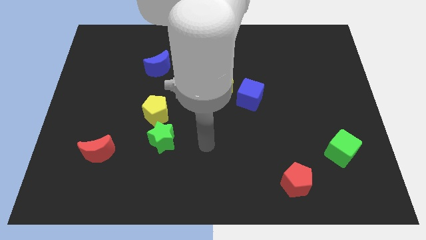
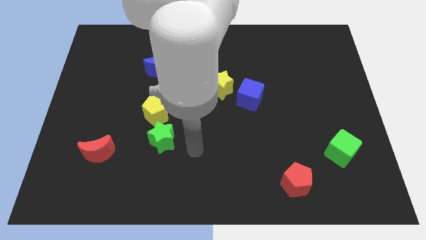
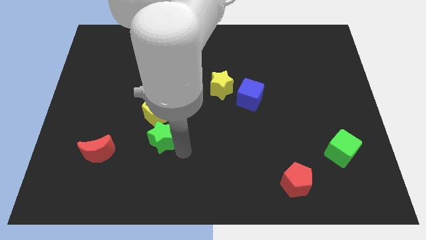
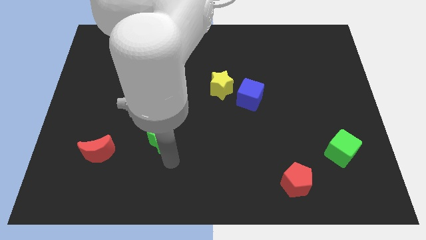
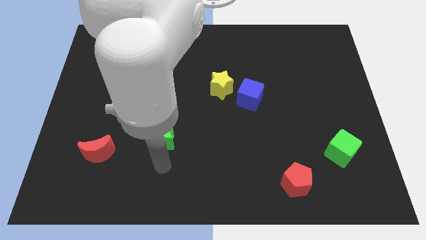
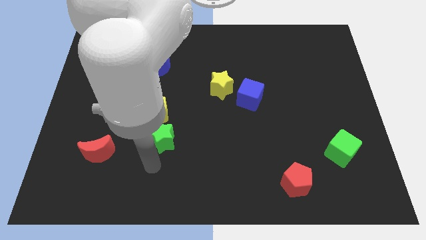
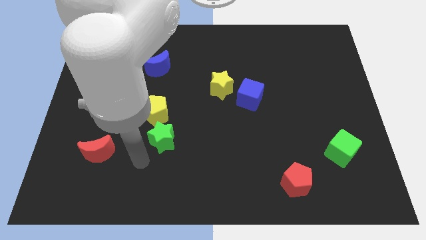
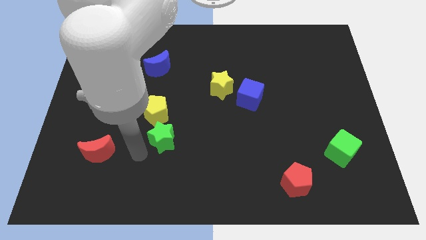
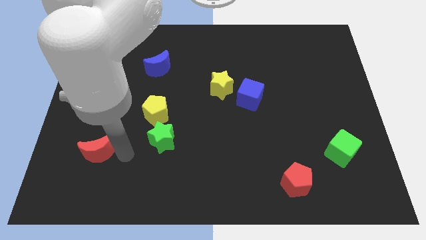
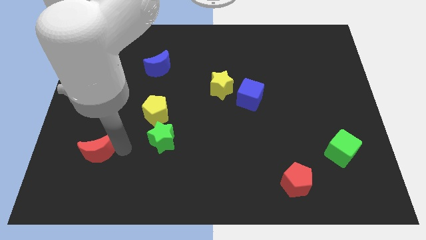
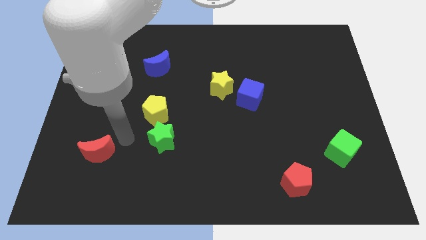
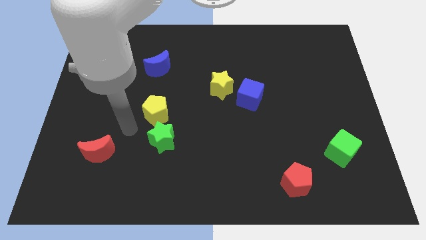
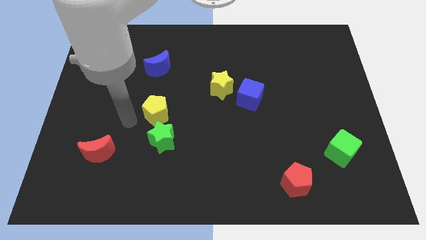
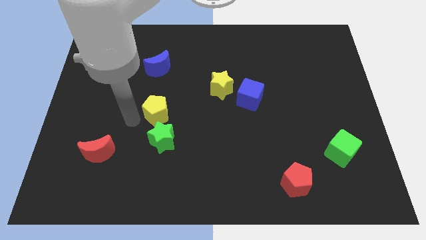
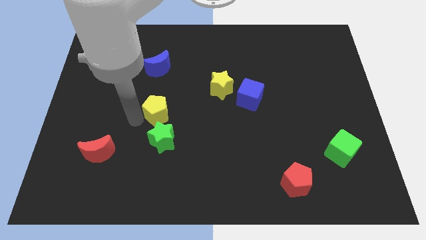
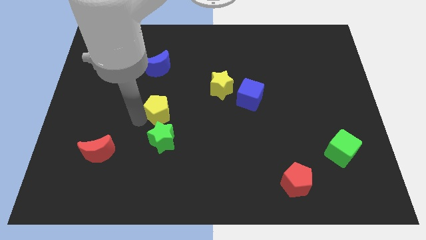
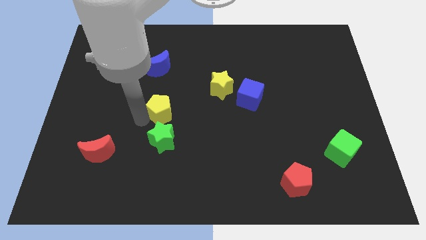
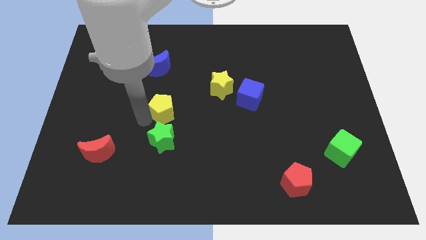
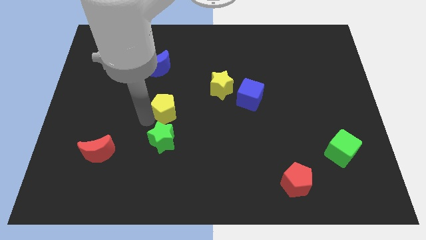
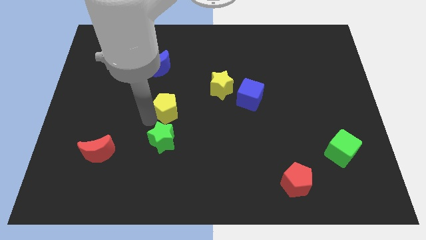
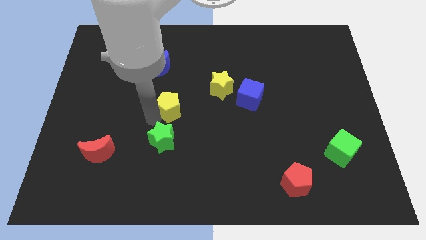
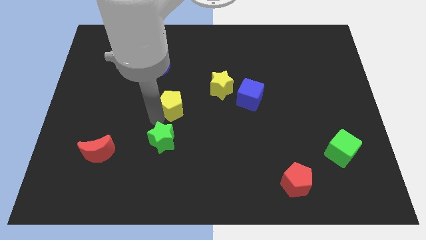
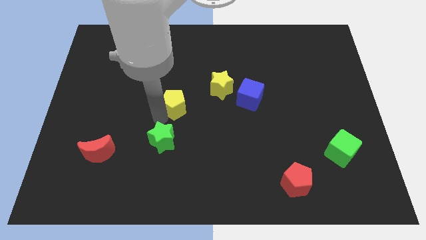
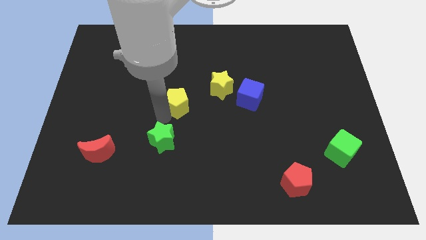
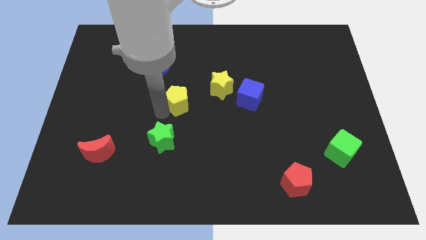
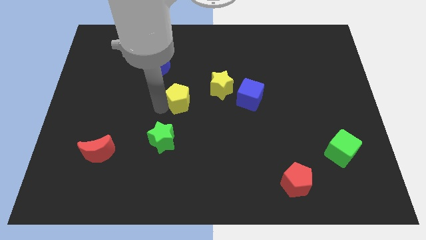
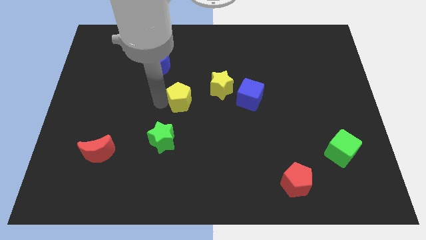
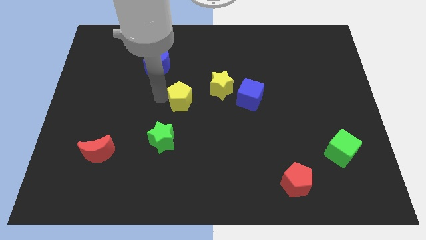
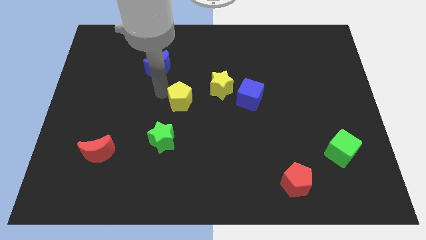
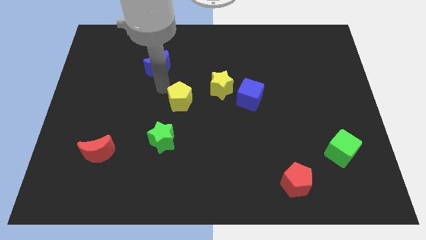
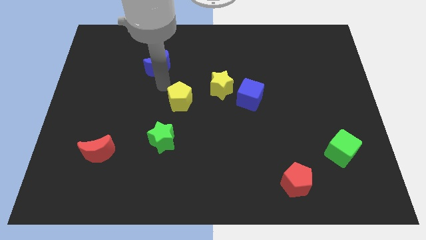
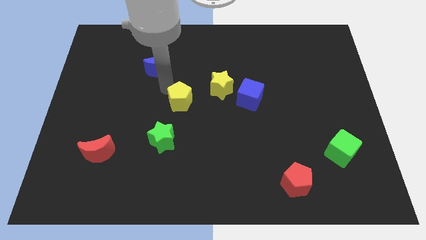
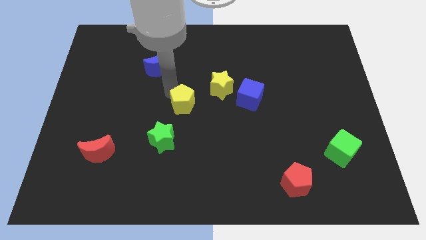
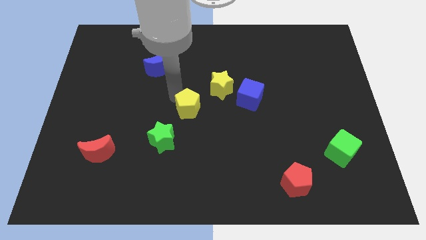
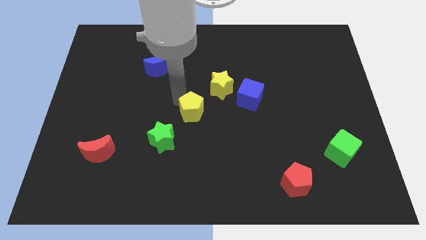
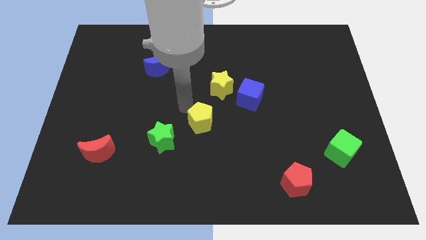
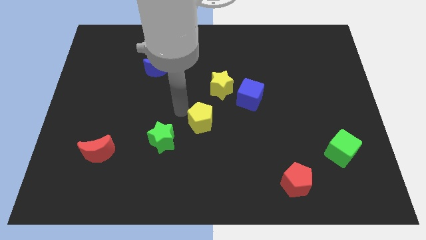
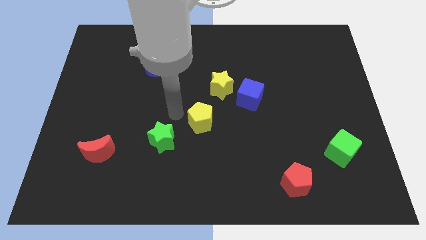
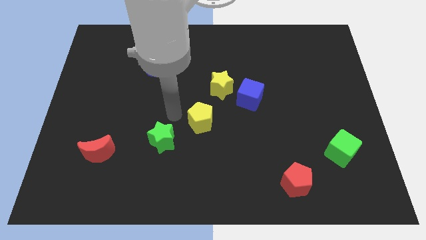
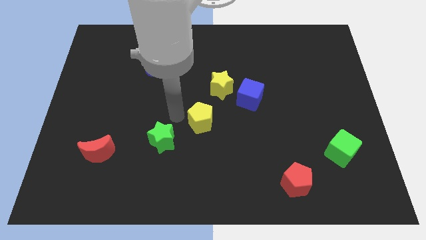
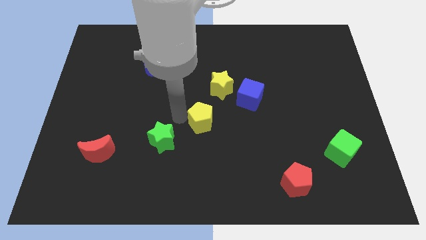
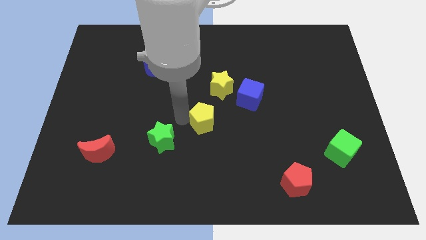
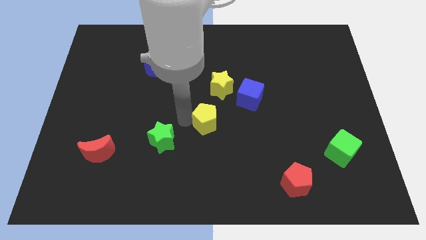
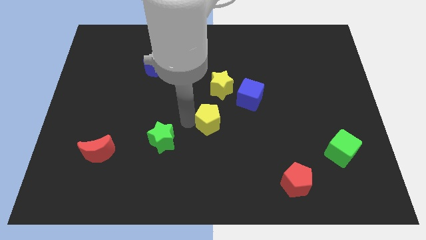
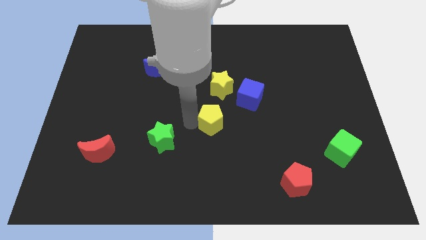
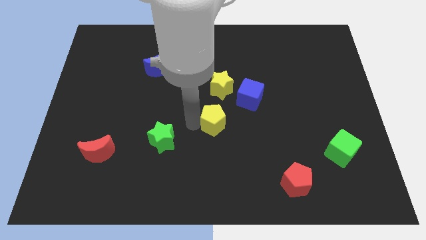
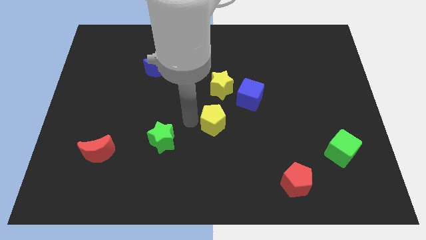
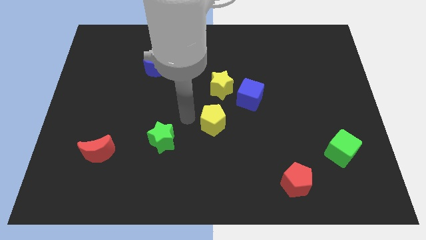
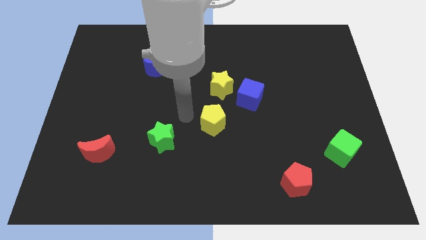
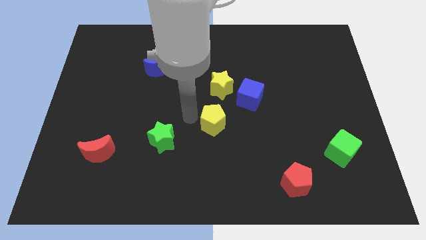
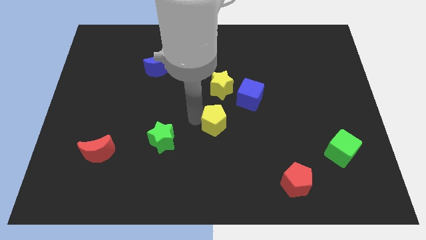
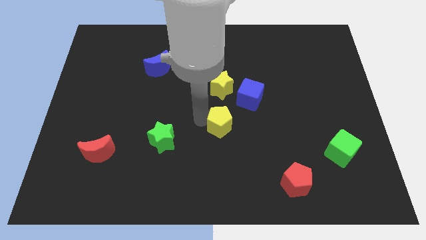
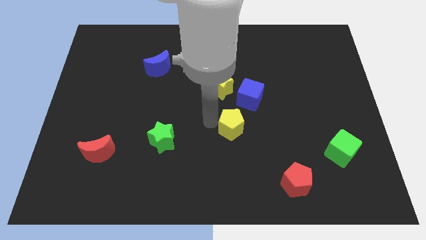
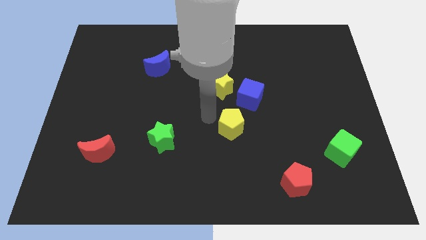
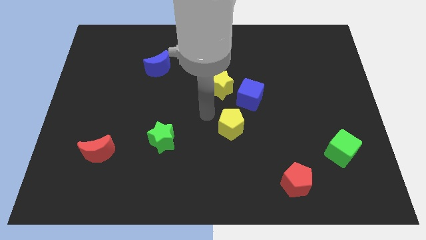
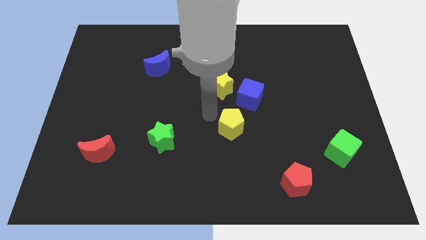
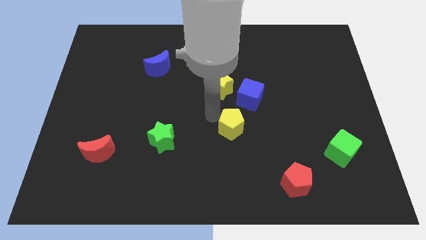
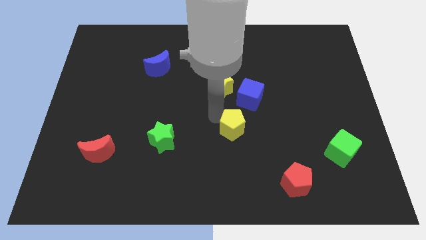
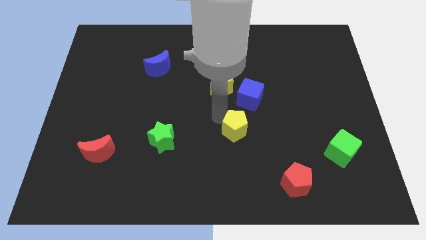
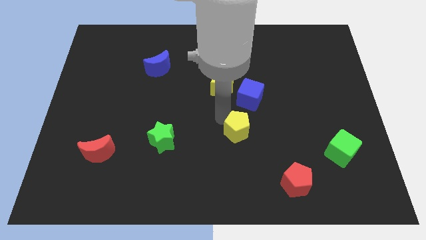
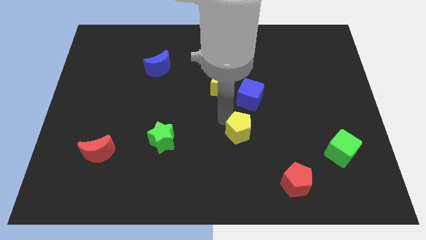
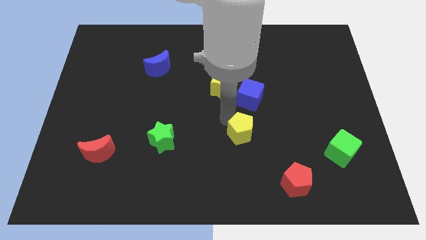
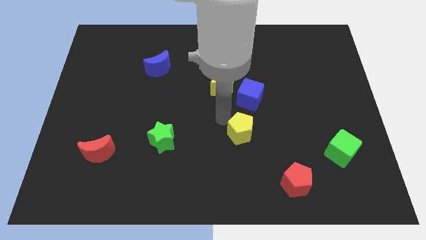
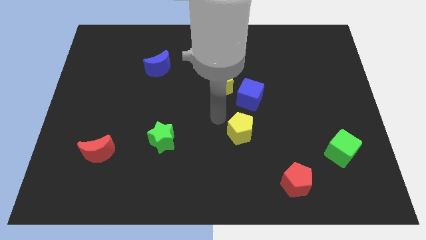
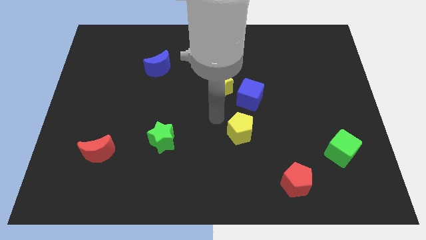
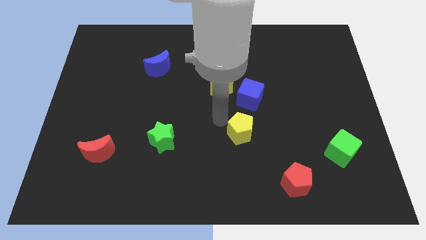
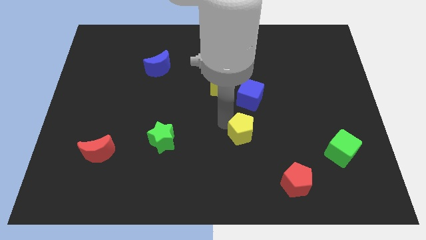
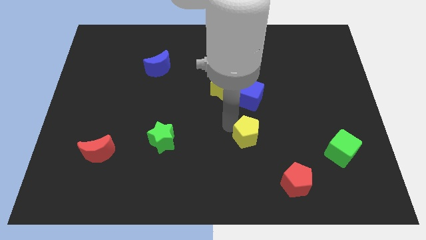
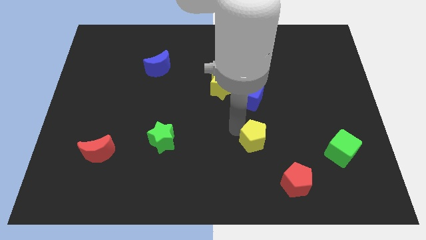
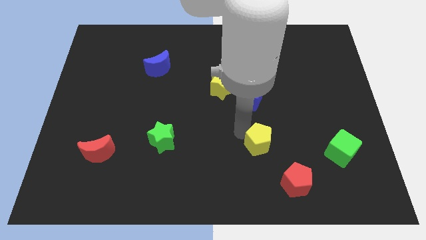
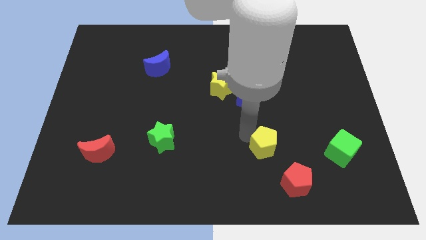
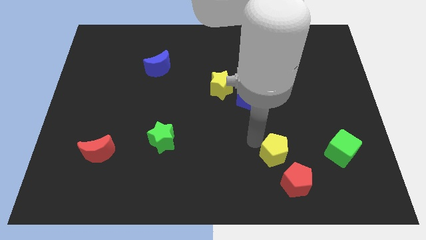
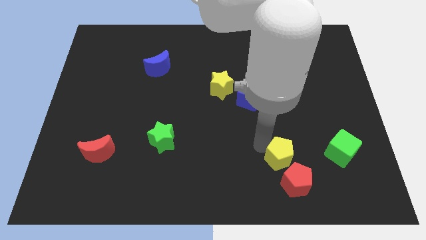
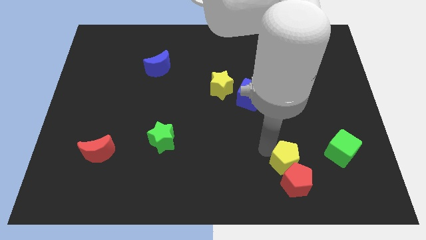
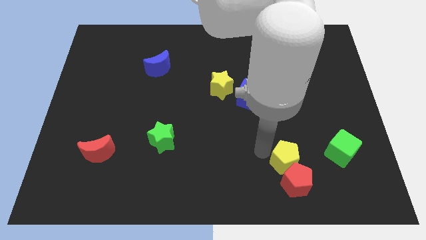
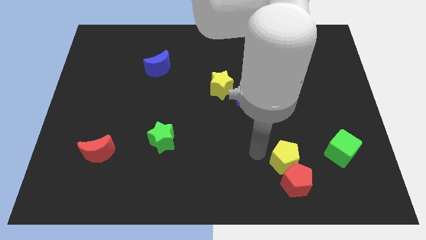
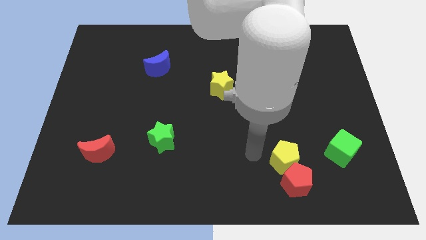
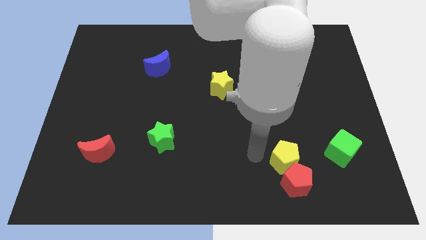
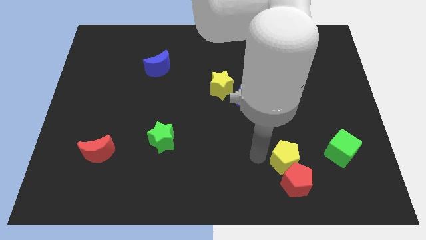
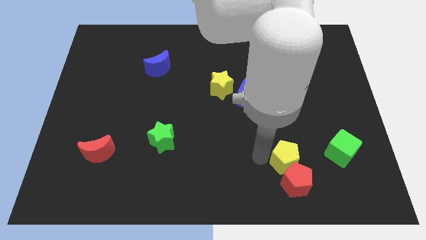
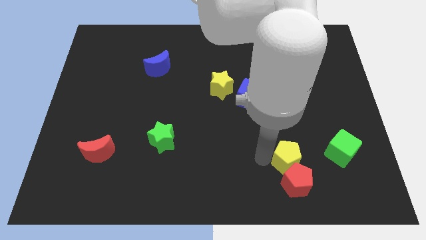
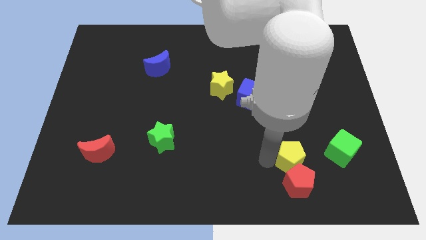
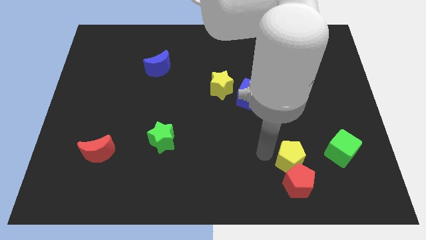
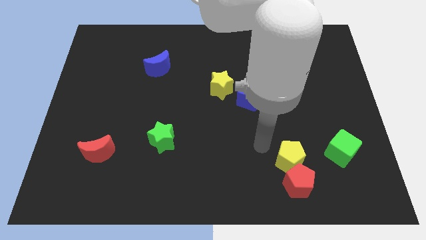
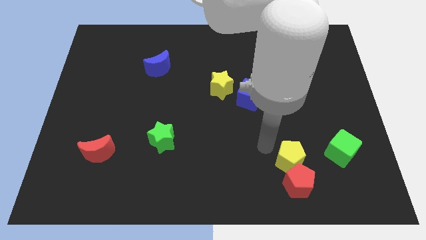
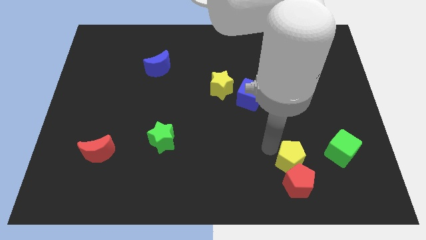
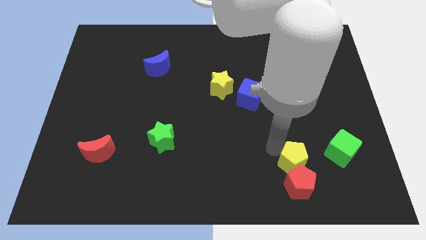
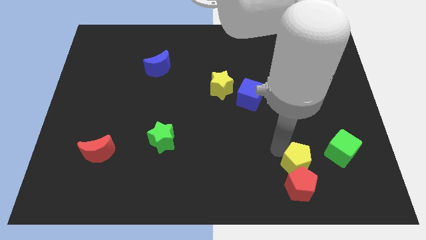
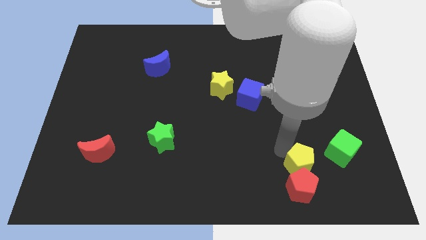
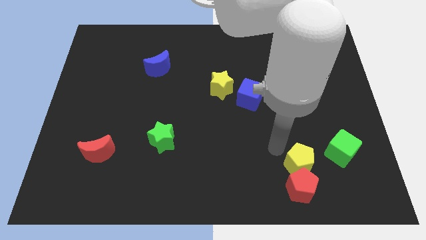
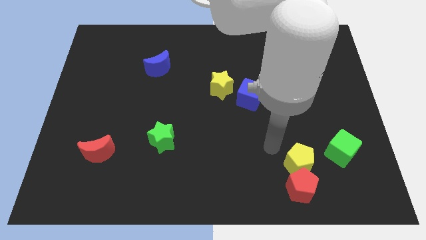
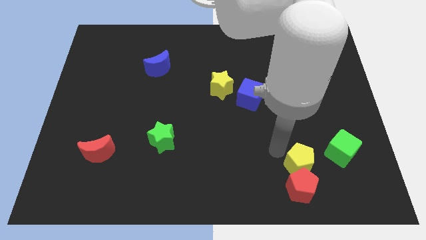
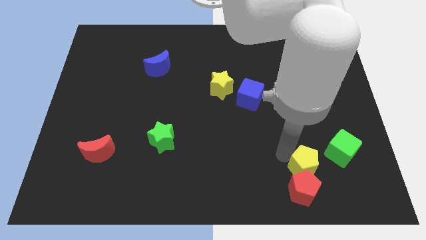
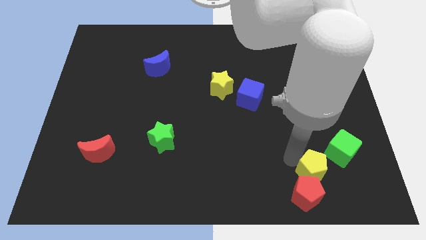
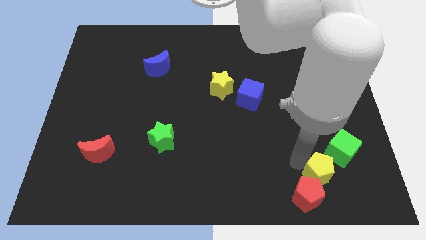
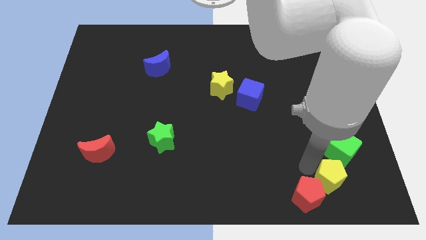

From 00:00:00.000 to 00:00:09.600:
push the yellow pentagon to the right side of the red pentagon
